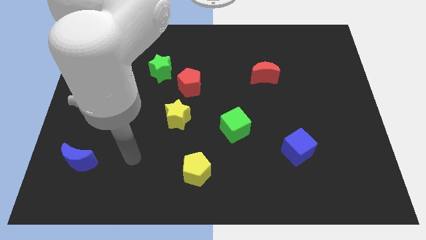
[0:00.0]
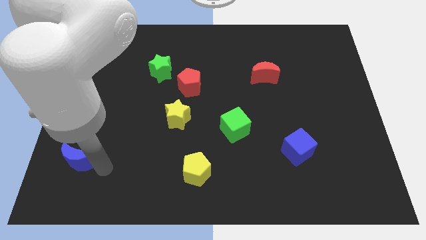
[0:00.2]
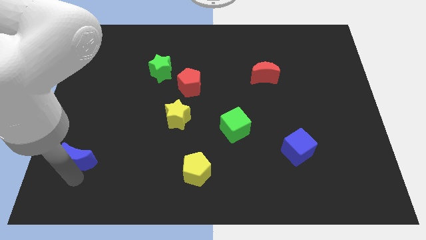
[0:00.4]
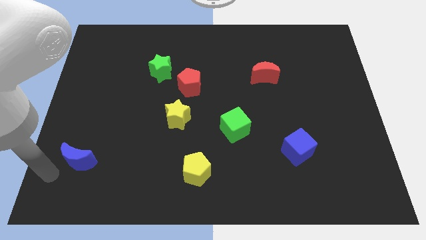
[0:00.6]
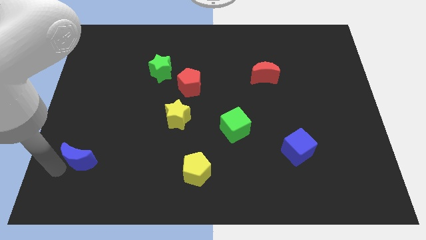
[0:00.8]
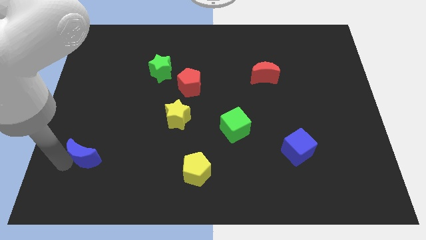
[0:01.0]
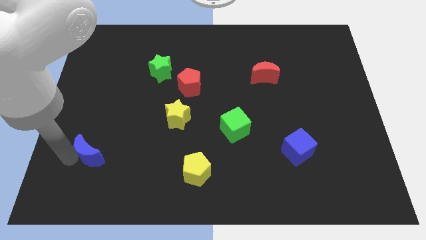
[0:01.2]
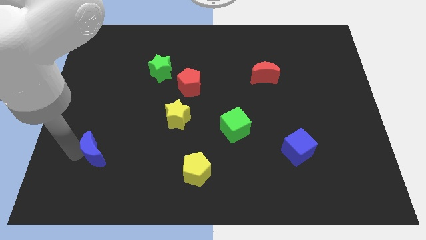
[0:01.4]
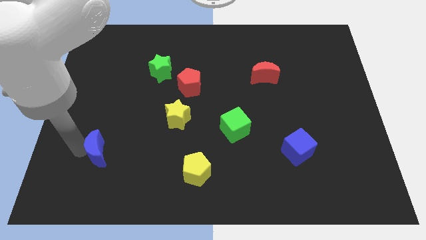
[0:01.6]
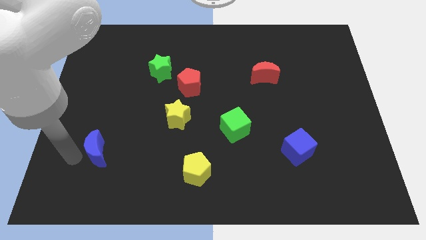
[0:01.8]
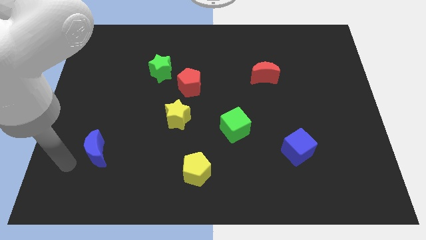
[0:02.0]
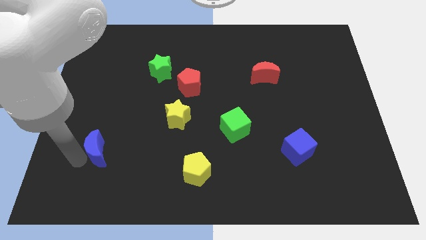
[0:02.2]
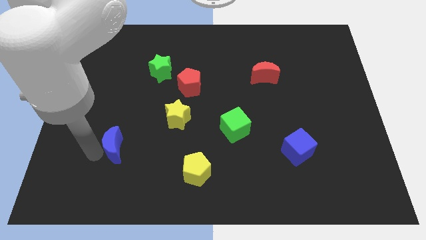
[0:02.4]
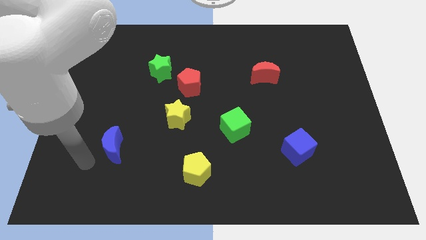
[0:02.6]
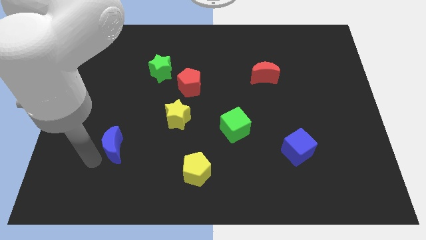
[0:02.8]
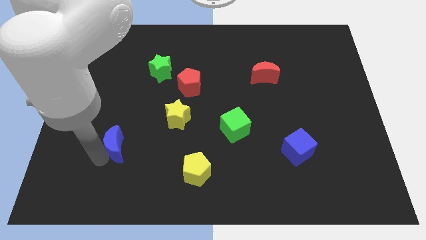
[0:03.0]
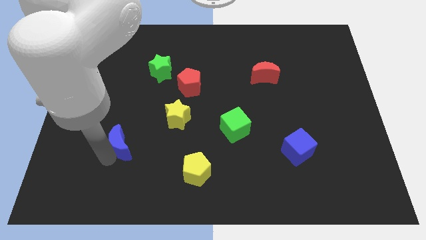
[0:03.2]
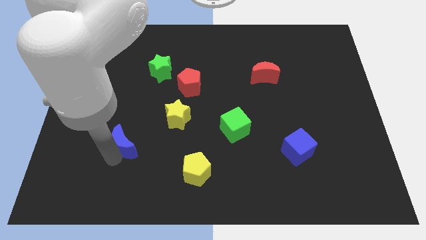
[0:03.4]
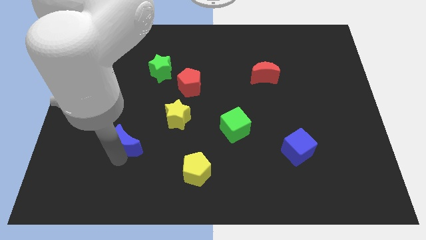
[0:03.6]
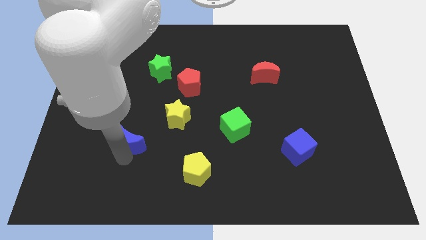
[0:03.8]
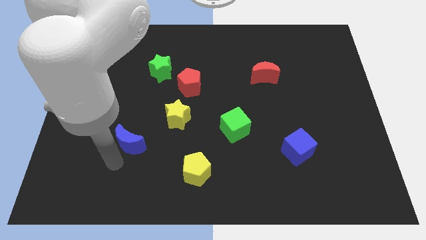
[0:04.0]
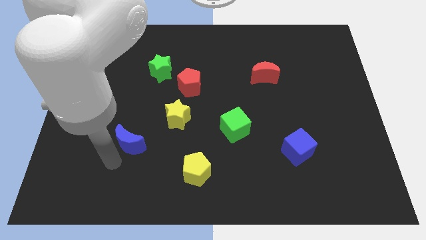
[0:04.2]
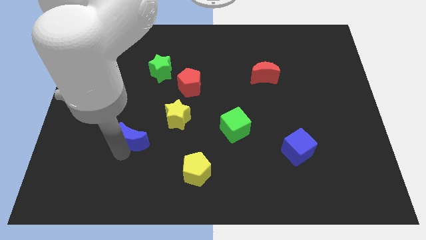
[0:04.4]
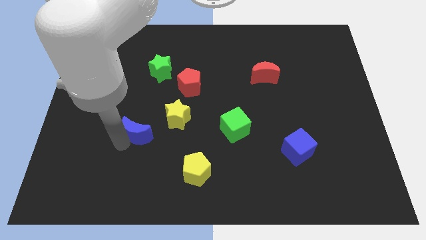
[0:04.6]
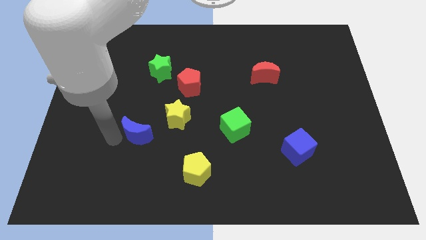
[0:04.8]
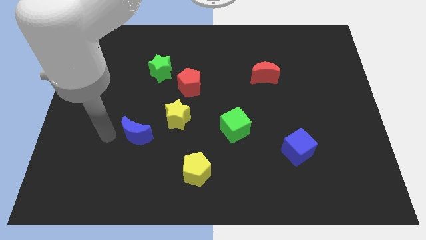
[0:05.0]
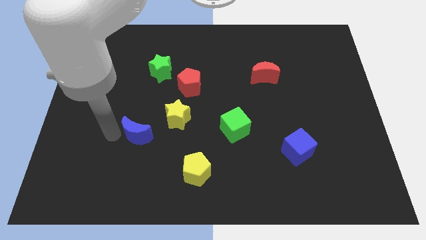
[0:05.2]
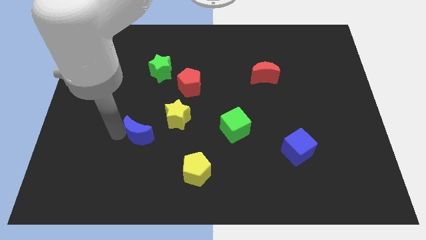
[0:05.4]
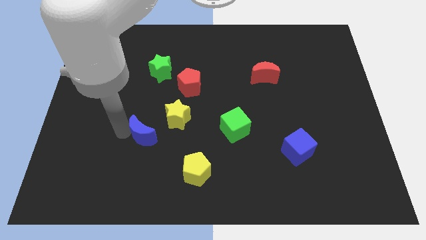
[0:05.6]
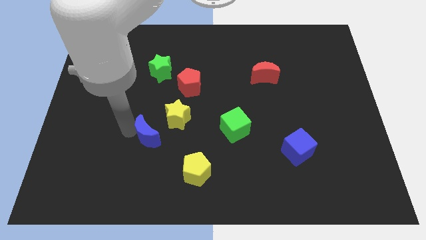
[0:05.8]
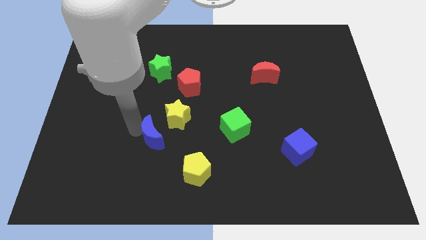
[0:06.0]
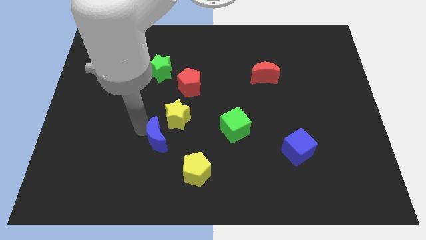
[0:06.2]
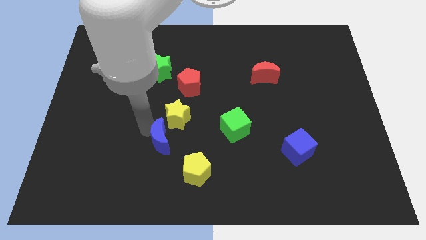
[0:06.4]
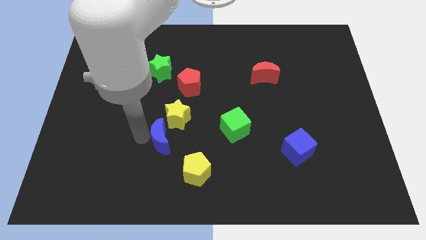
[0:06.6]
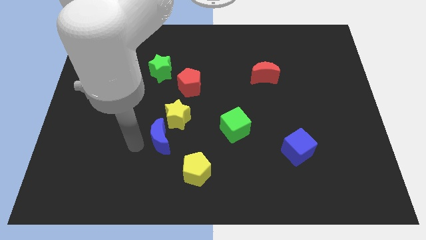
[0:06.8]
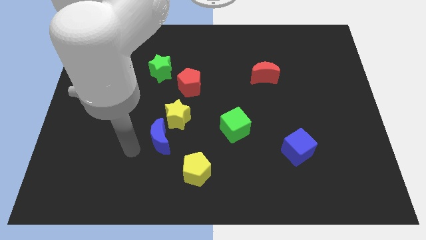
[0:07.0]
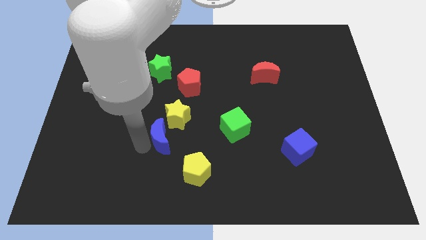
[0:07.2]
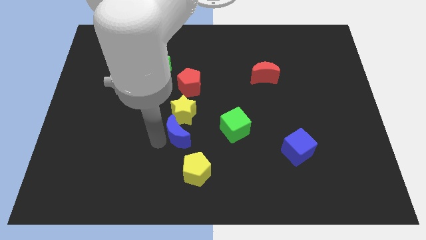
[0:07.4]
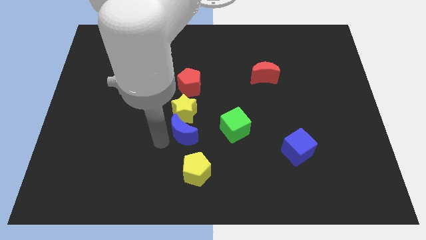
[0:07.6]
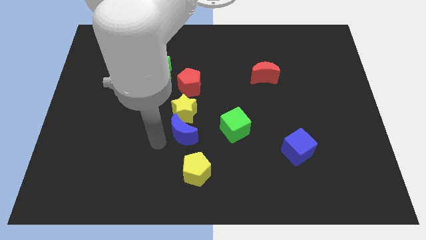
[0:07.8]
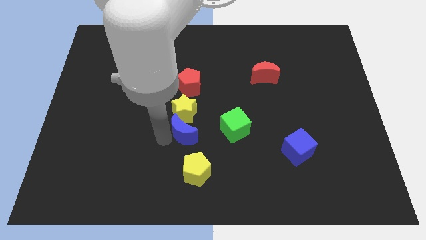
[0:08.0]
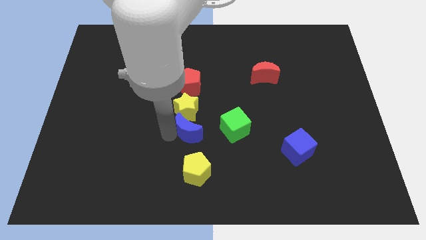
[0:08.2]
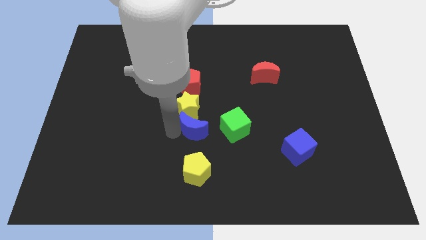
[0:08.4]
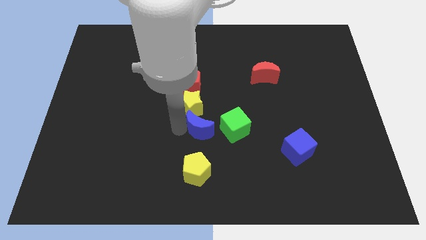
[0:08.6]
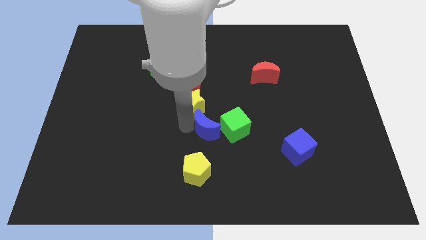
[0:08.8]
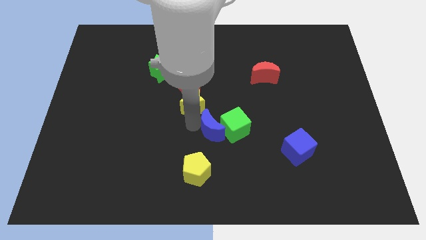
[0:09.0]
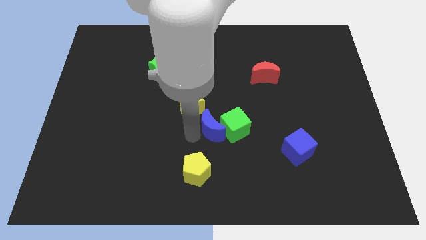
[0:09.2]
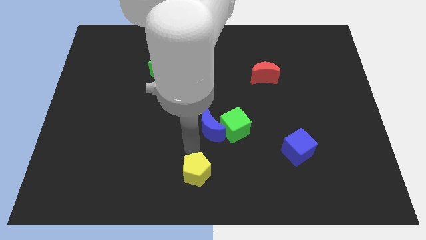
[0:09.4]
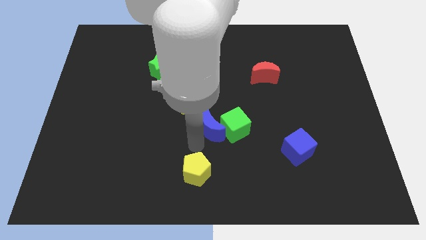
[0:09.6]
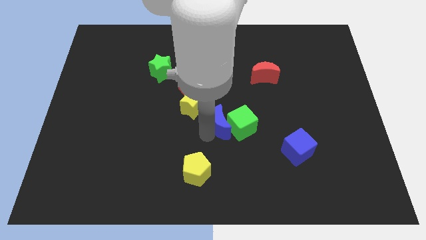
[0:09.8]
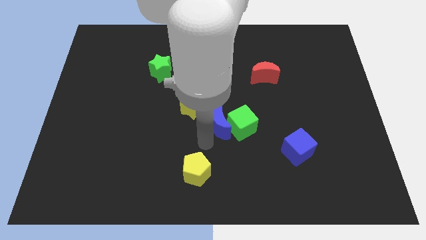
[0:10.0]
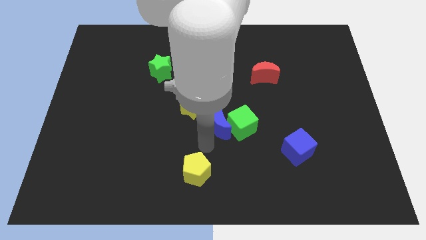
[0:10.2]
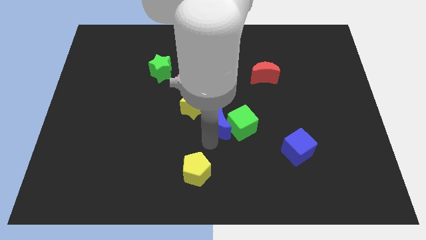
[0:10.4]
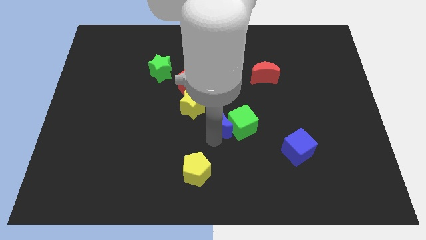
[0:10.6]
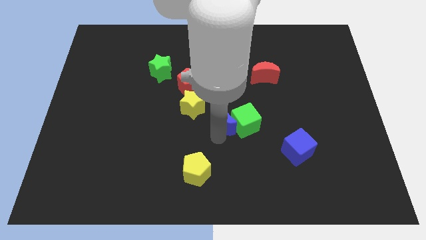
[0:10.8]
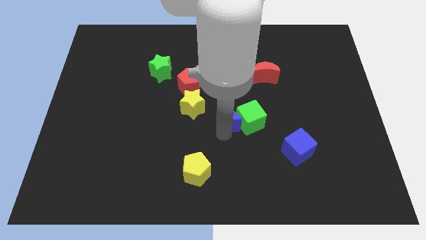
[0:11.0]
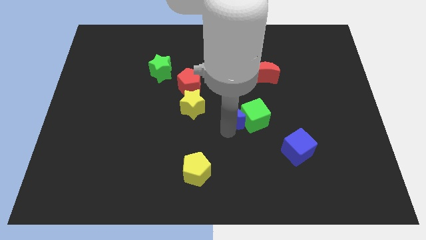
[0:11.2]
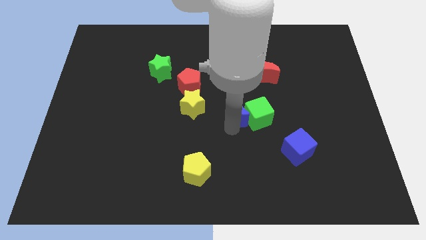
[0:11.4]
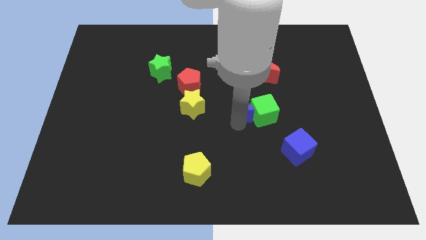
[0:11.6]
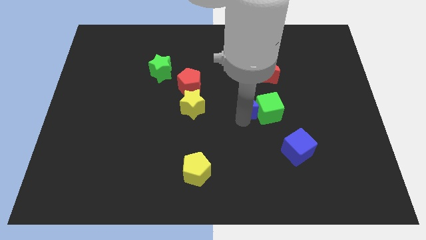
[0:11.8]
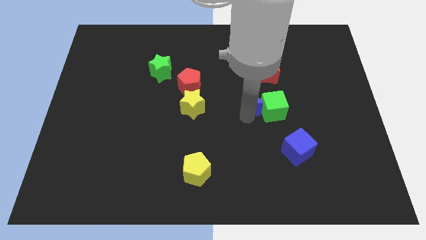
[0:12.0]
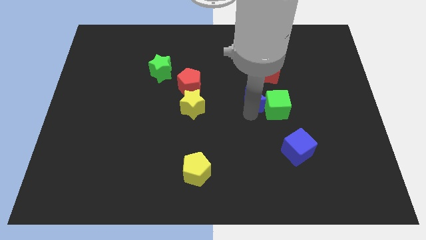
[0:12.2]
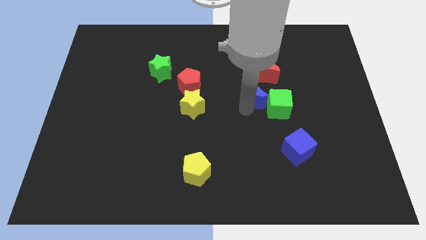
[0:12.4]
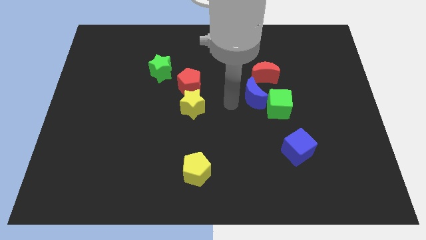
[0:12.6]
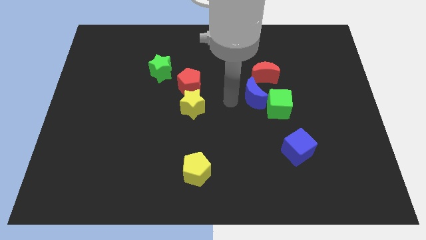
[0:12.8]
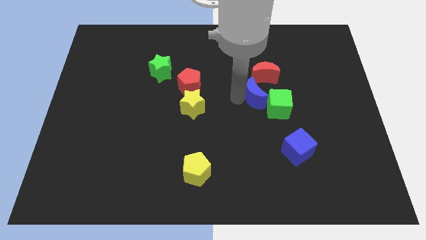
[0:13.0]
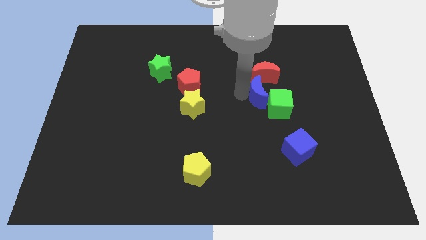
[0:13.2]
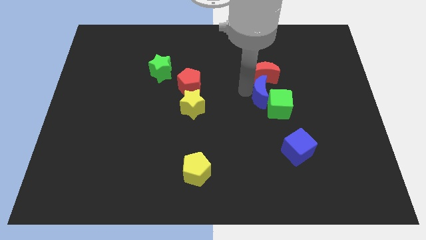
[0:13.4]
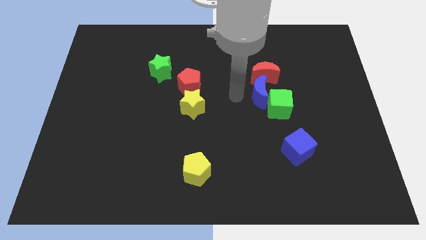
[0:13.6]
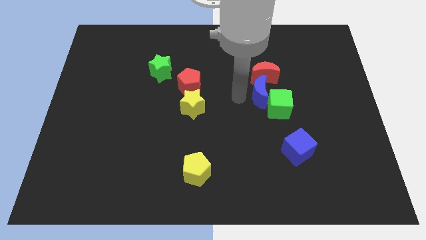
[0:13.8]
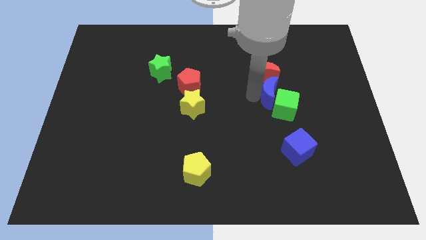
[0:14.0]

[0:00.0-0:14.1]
slide the blue moon to the bottom right of the red moon

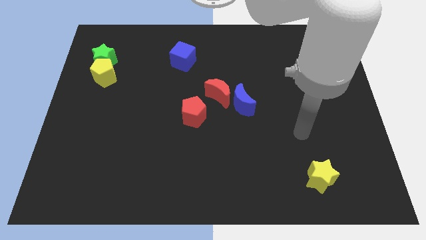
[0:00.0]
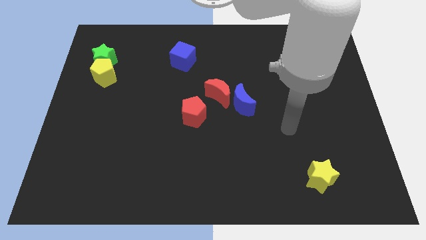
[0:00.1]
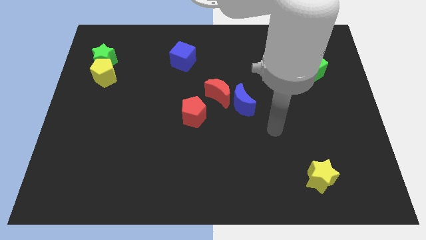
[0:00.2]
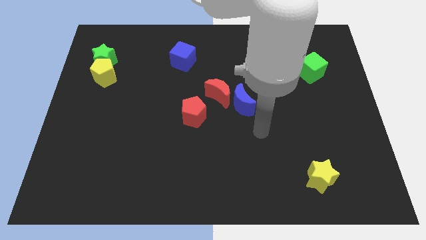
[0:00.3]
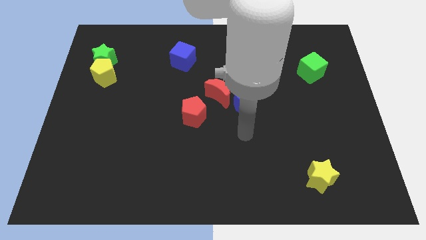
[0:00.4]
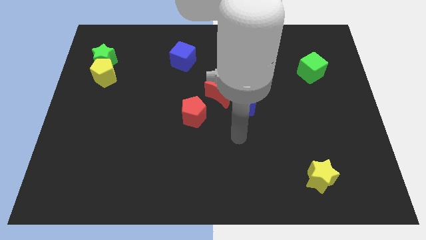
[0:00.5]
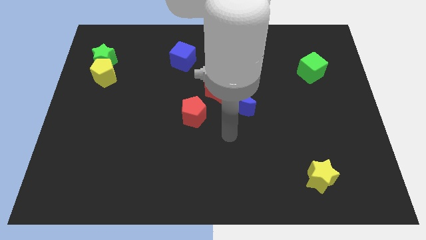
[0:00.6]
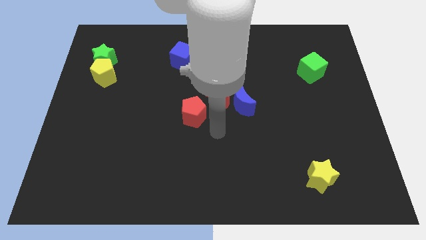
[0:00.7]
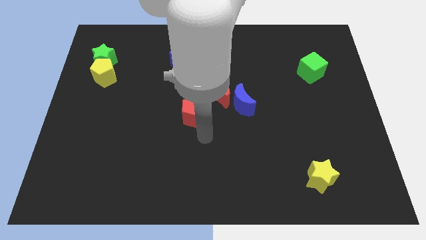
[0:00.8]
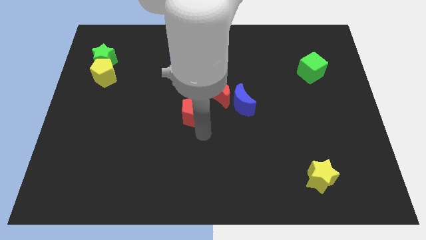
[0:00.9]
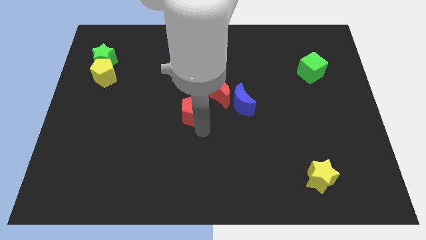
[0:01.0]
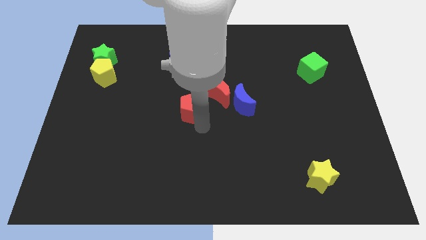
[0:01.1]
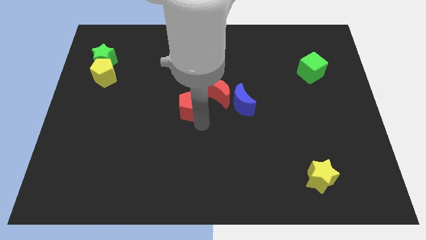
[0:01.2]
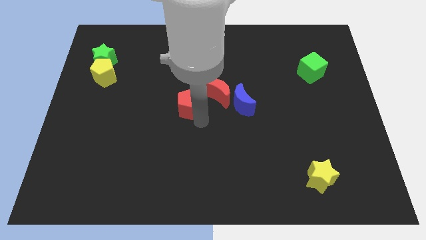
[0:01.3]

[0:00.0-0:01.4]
slide the red pentagon below the blue cube
